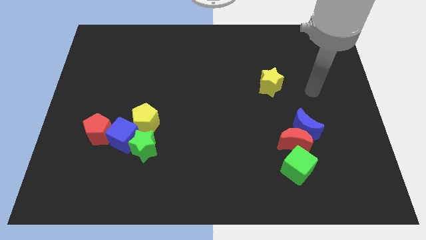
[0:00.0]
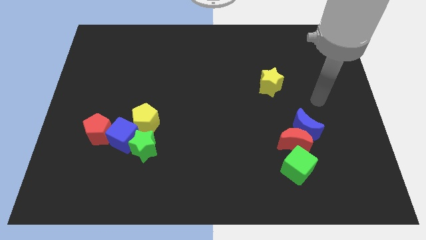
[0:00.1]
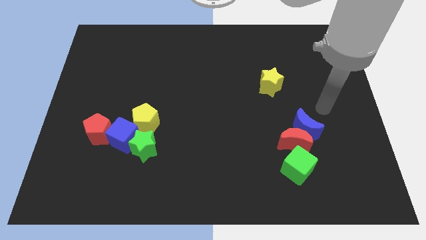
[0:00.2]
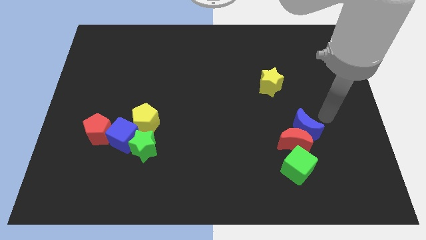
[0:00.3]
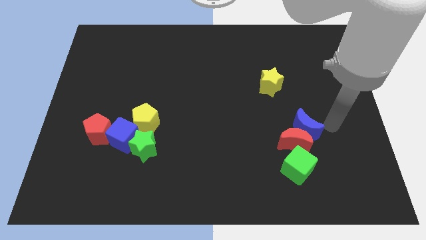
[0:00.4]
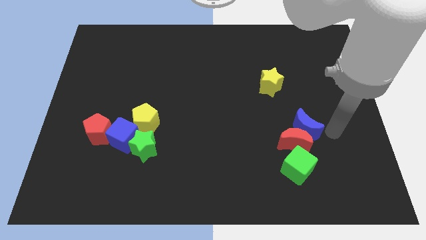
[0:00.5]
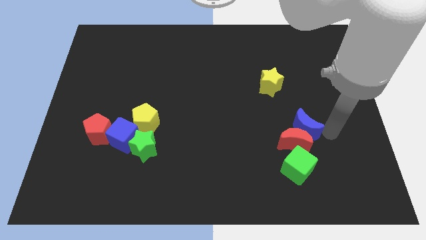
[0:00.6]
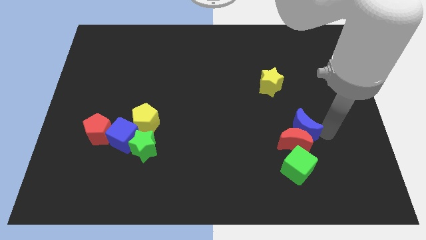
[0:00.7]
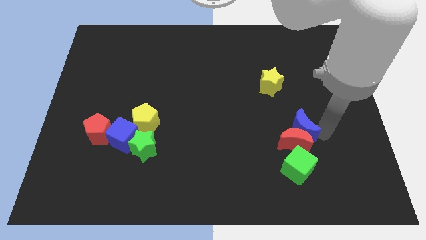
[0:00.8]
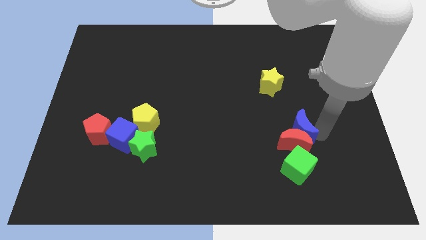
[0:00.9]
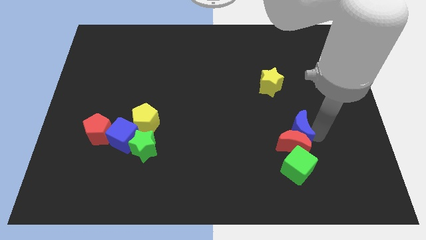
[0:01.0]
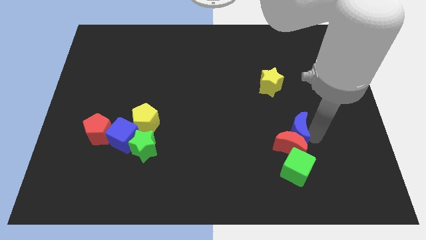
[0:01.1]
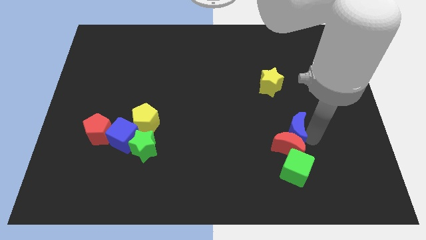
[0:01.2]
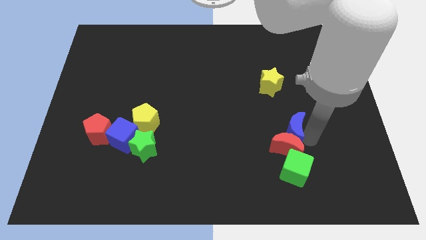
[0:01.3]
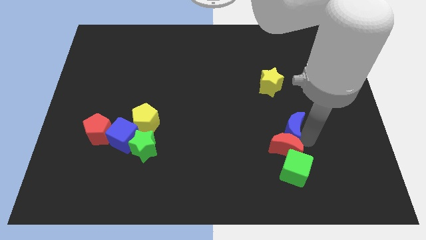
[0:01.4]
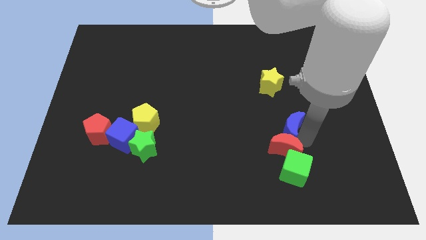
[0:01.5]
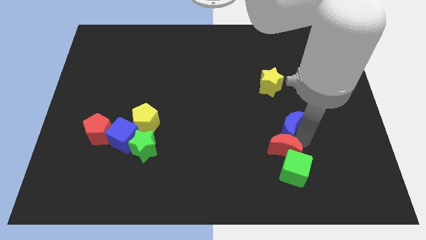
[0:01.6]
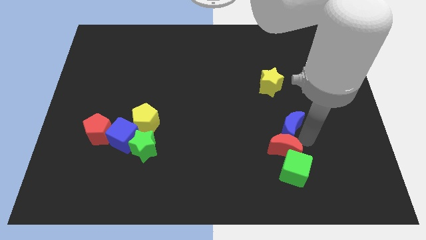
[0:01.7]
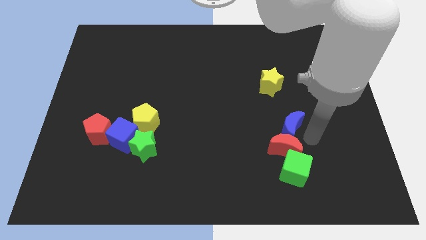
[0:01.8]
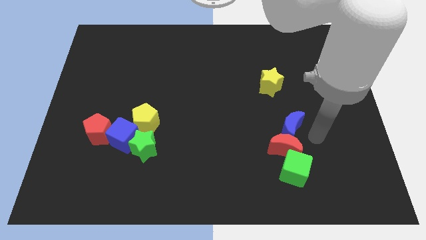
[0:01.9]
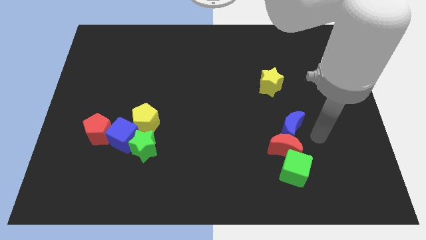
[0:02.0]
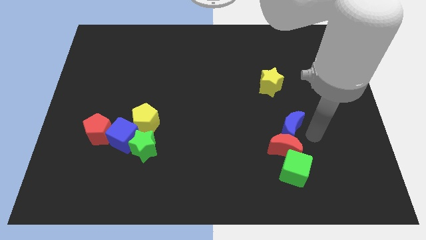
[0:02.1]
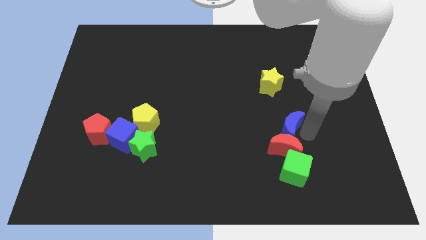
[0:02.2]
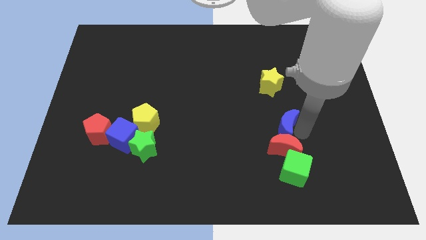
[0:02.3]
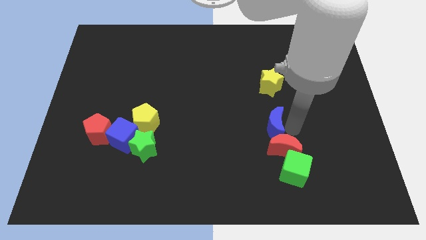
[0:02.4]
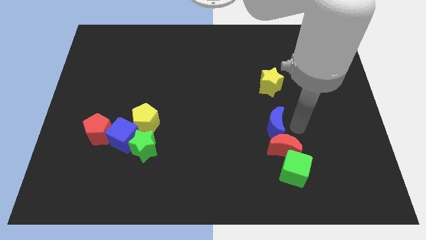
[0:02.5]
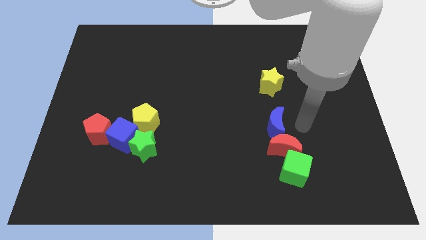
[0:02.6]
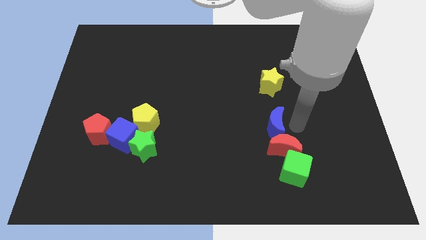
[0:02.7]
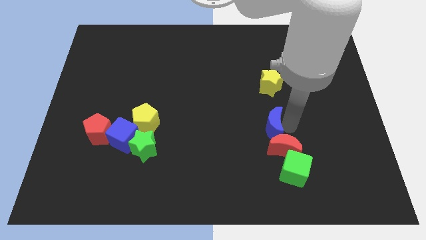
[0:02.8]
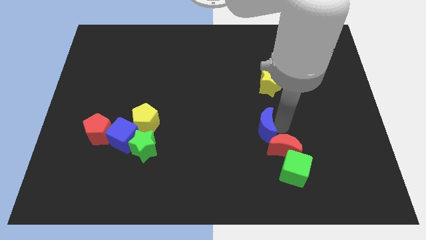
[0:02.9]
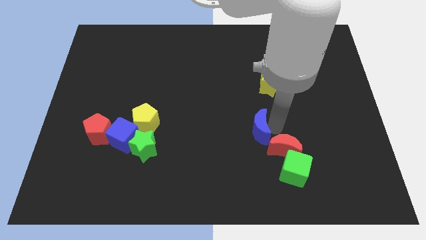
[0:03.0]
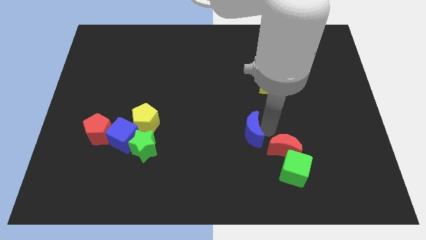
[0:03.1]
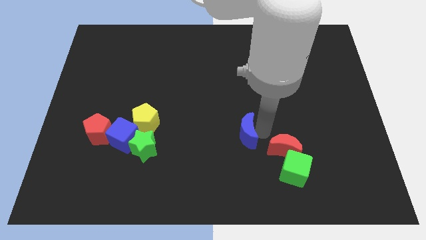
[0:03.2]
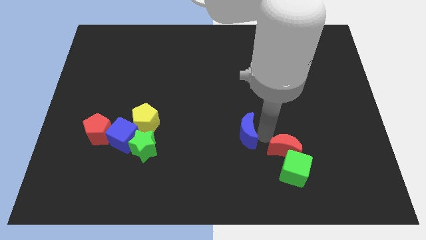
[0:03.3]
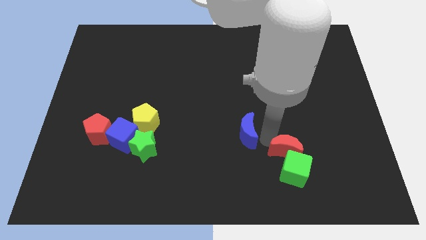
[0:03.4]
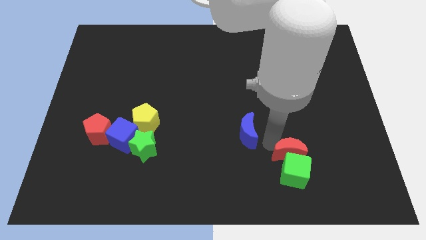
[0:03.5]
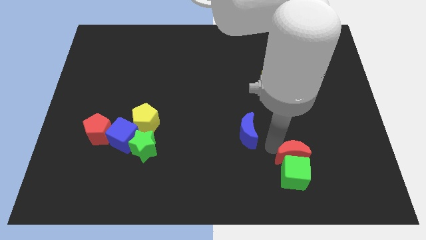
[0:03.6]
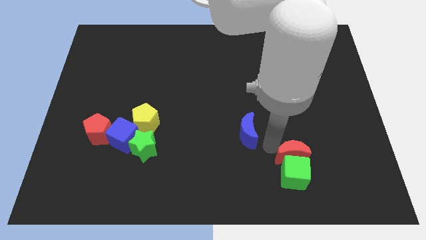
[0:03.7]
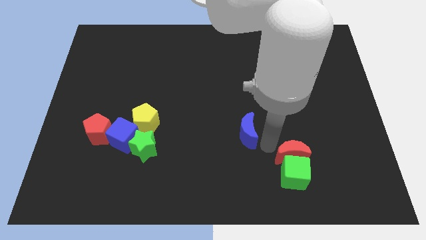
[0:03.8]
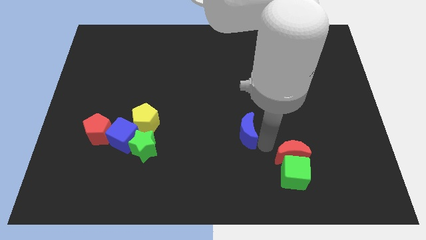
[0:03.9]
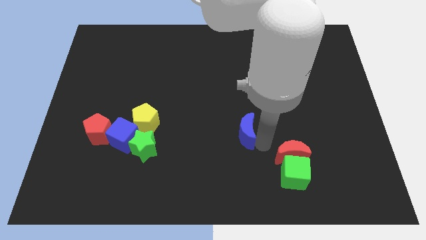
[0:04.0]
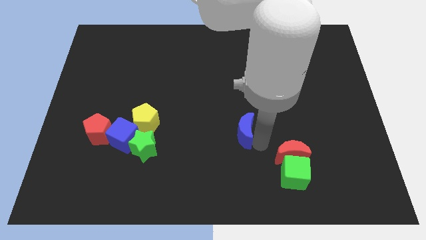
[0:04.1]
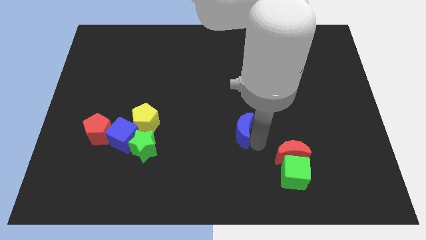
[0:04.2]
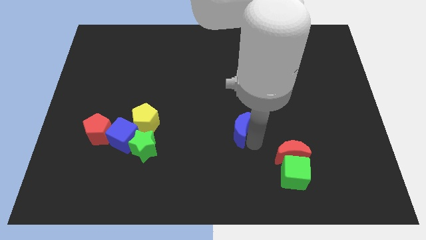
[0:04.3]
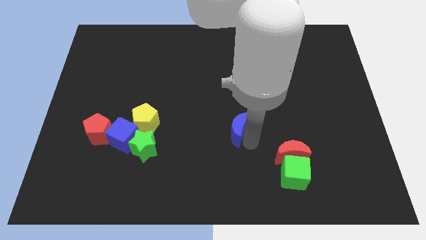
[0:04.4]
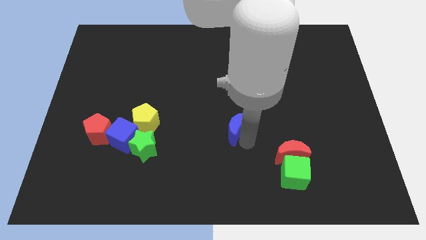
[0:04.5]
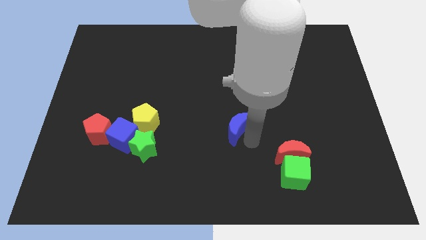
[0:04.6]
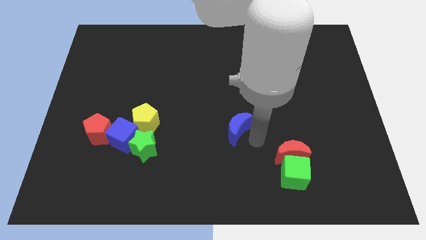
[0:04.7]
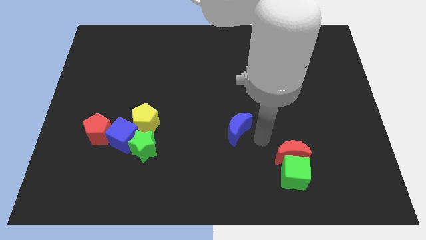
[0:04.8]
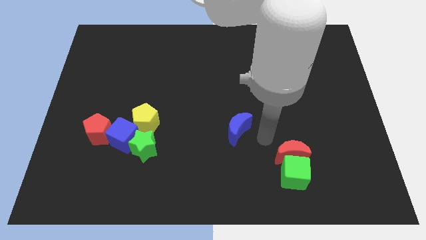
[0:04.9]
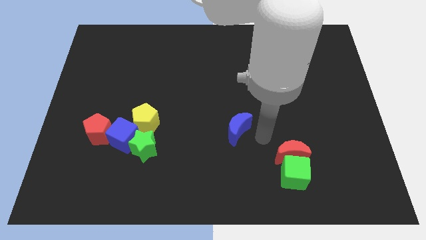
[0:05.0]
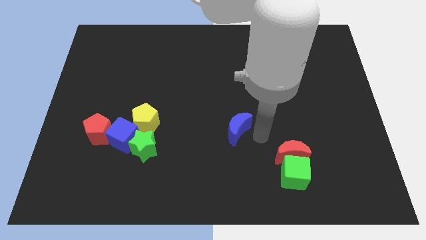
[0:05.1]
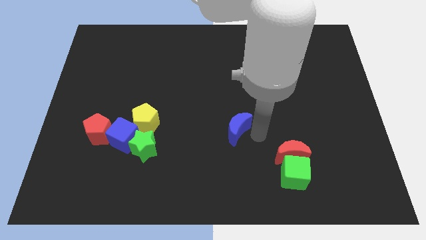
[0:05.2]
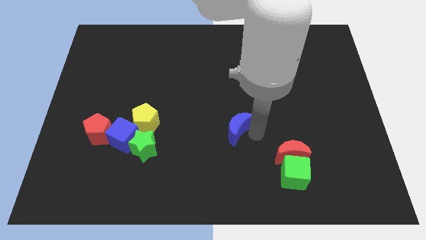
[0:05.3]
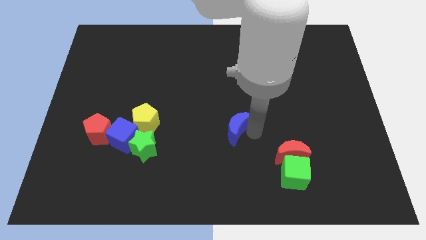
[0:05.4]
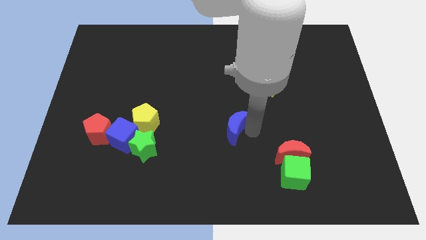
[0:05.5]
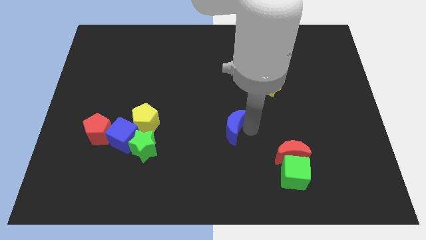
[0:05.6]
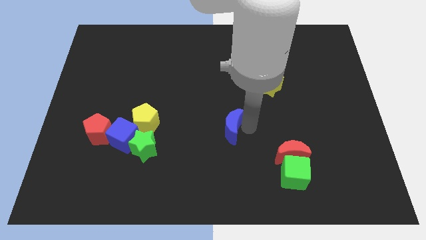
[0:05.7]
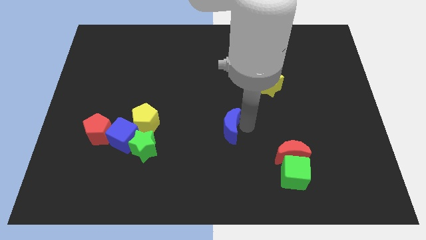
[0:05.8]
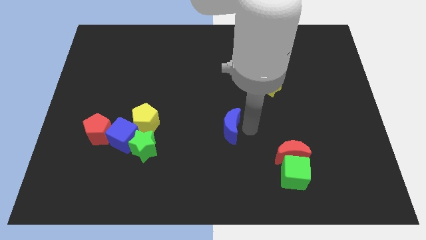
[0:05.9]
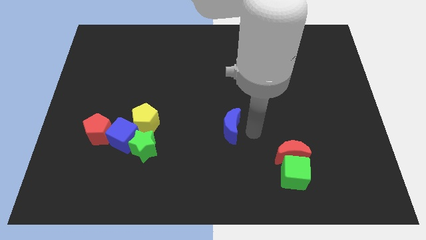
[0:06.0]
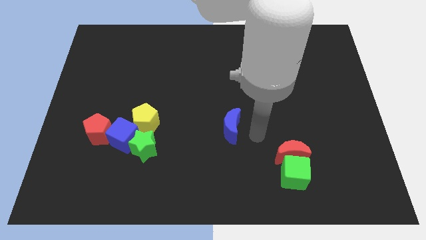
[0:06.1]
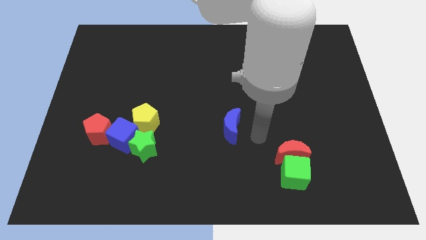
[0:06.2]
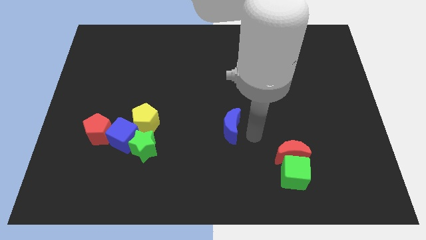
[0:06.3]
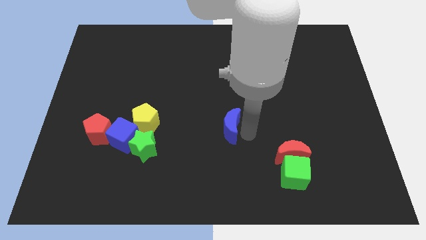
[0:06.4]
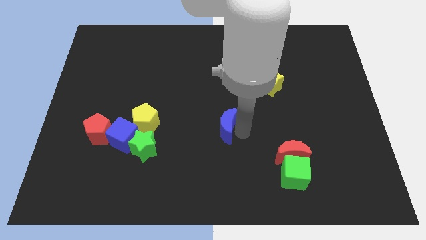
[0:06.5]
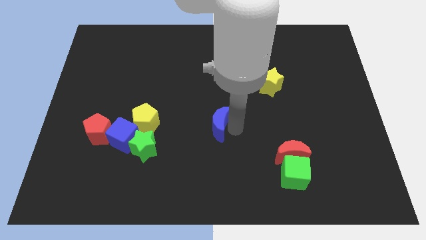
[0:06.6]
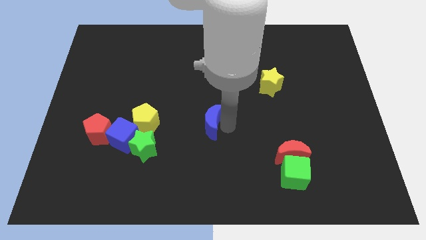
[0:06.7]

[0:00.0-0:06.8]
push the blue moon left

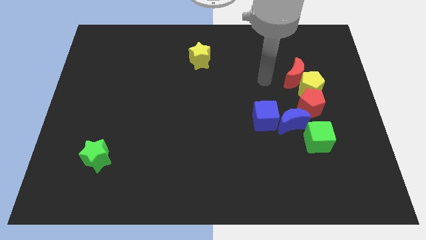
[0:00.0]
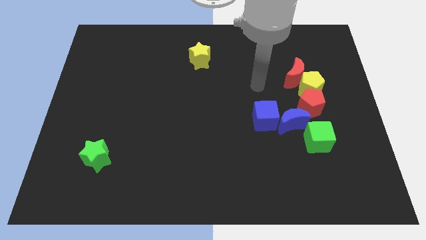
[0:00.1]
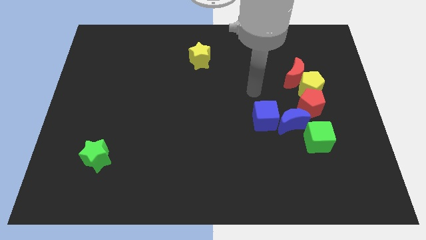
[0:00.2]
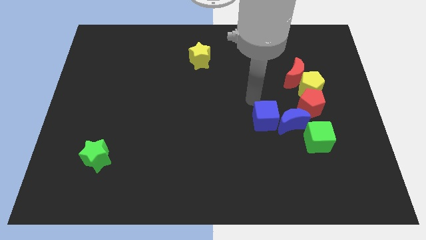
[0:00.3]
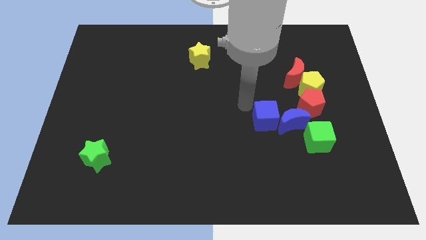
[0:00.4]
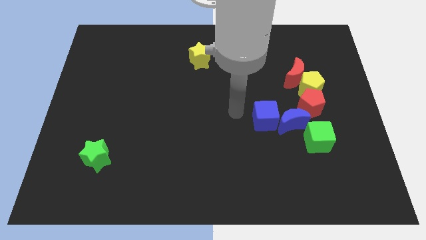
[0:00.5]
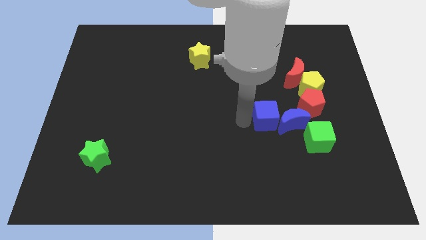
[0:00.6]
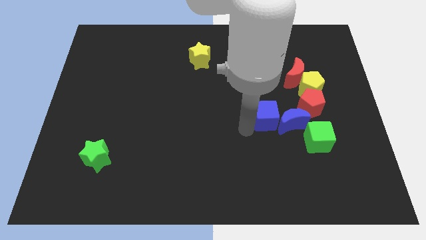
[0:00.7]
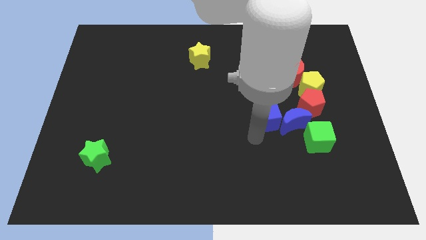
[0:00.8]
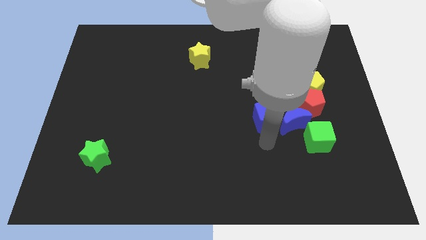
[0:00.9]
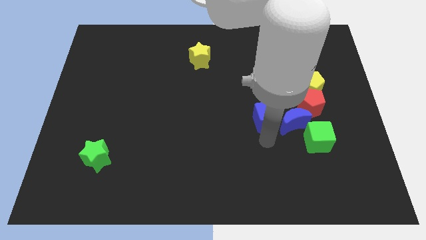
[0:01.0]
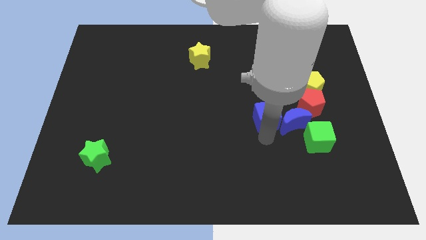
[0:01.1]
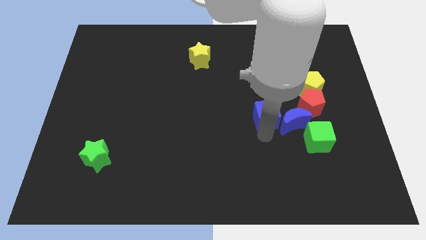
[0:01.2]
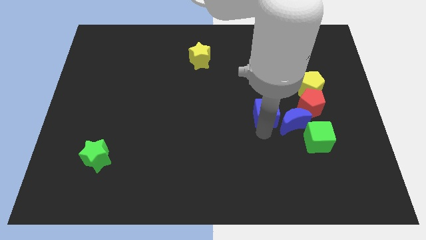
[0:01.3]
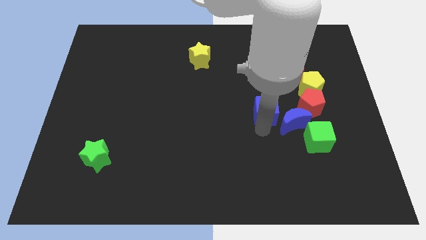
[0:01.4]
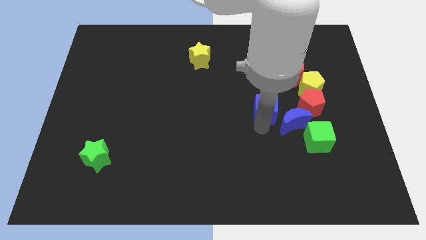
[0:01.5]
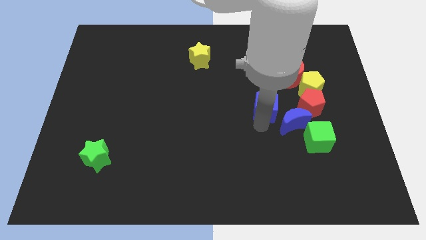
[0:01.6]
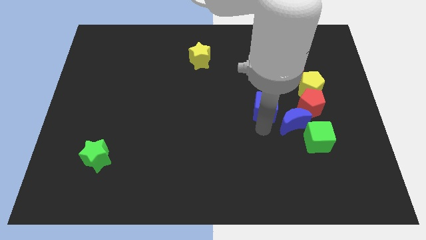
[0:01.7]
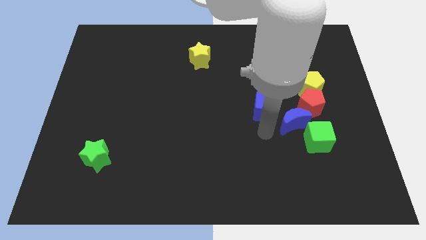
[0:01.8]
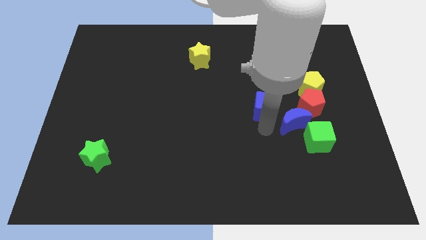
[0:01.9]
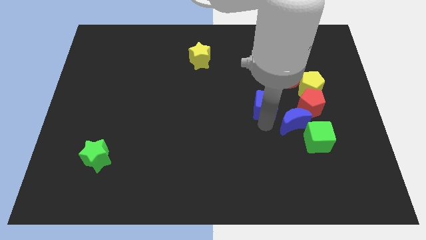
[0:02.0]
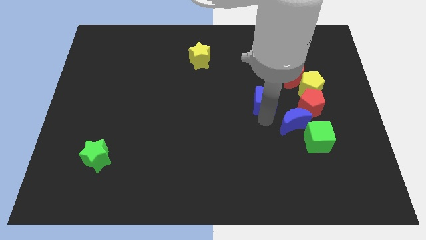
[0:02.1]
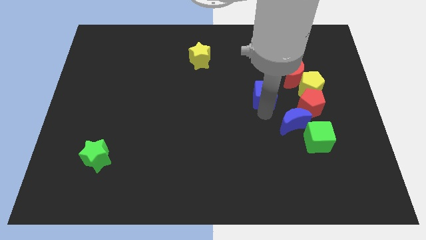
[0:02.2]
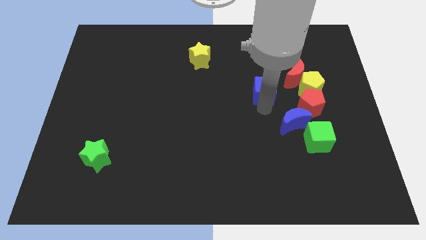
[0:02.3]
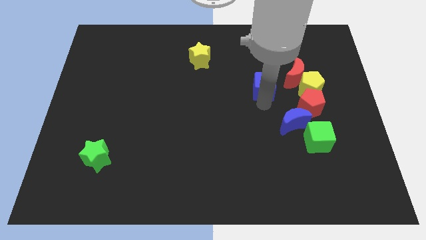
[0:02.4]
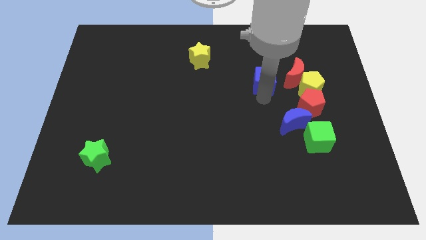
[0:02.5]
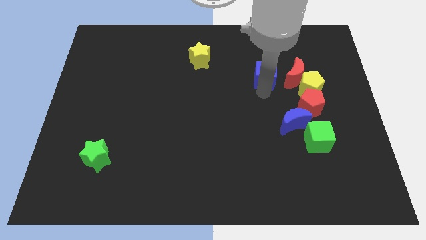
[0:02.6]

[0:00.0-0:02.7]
push the blue cube a little upwards and right diagonally
